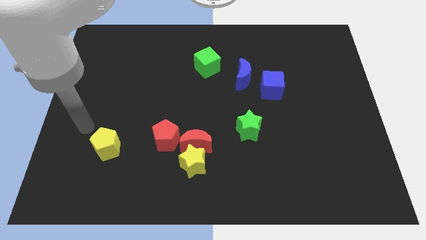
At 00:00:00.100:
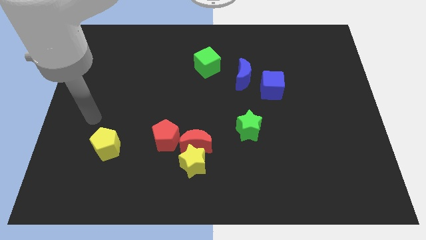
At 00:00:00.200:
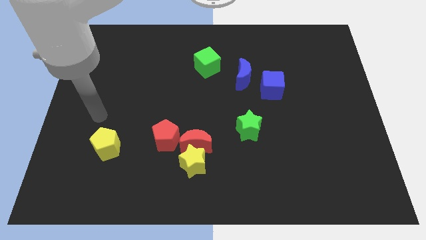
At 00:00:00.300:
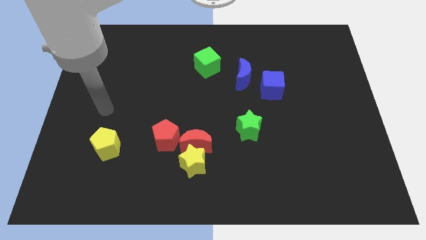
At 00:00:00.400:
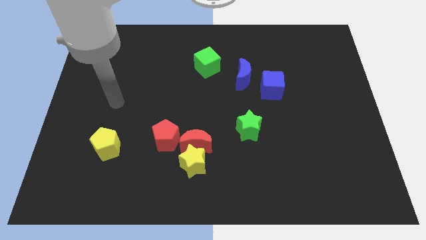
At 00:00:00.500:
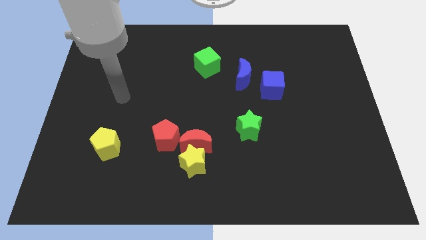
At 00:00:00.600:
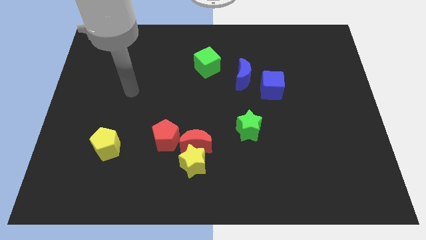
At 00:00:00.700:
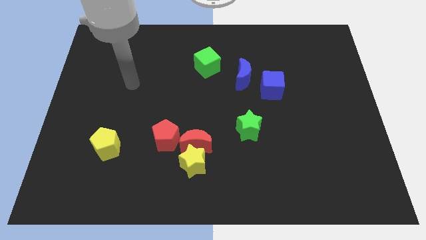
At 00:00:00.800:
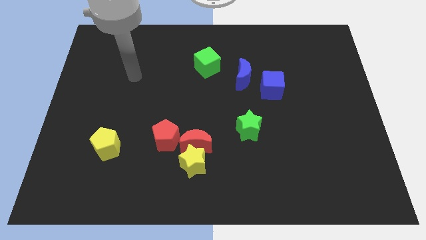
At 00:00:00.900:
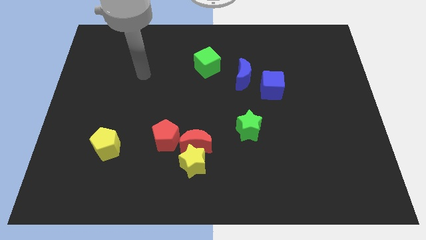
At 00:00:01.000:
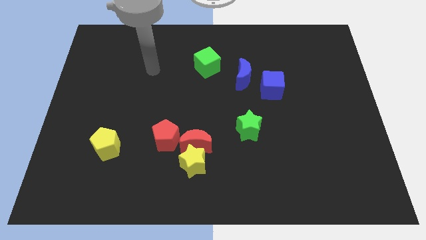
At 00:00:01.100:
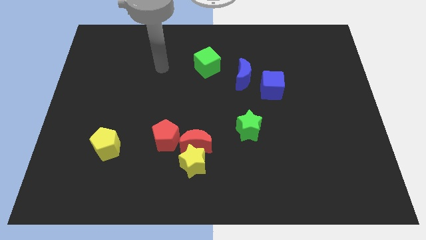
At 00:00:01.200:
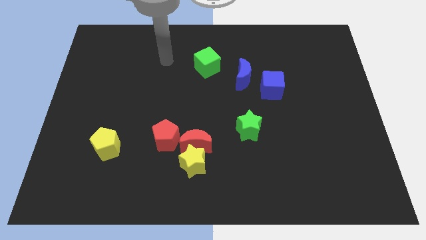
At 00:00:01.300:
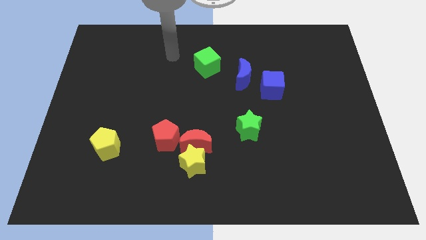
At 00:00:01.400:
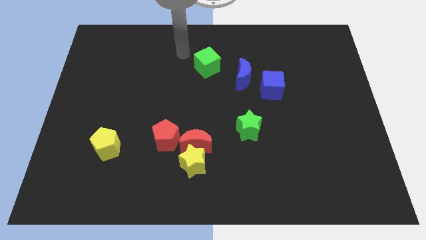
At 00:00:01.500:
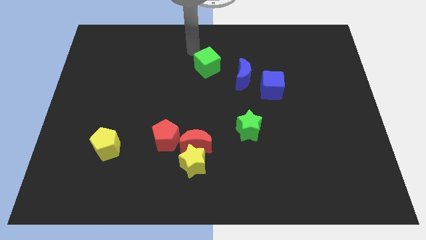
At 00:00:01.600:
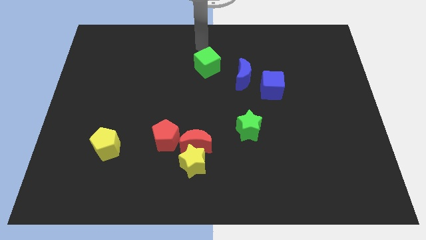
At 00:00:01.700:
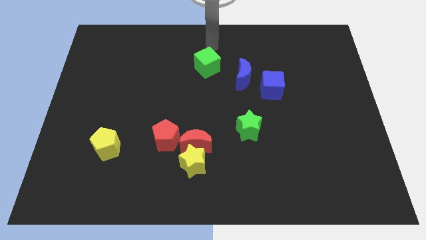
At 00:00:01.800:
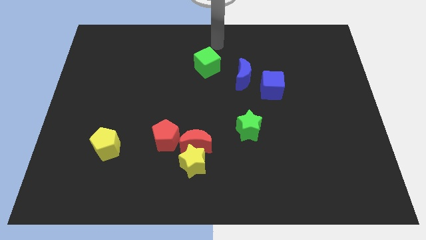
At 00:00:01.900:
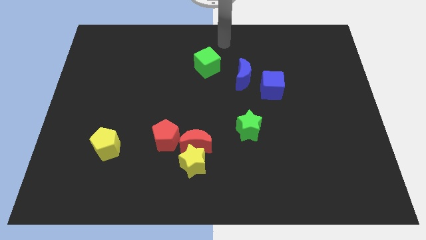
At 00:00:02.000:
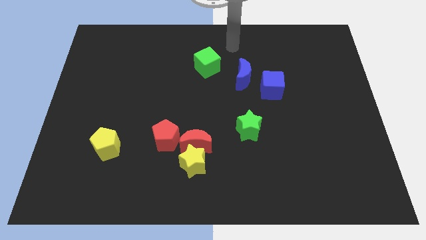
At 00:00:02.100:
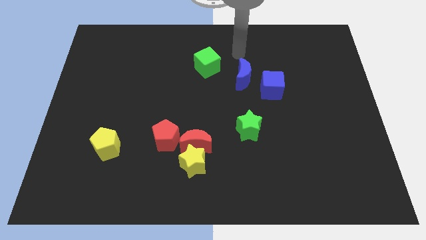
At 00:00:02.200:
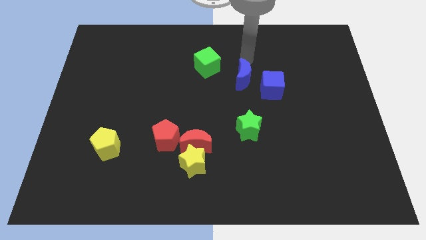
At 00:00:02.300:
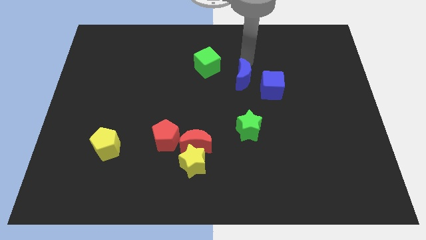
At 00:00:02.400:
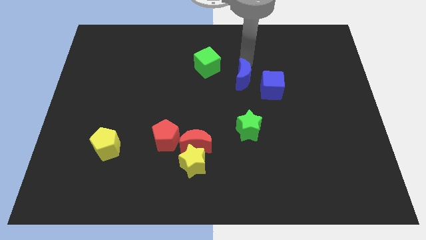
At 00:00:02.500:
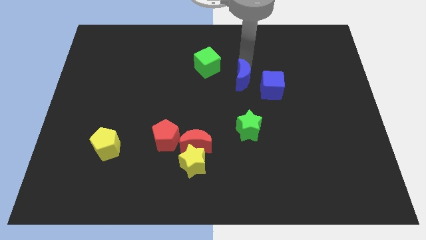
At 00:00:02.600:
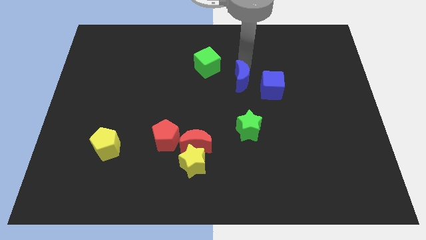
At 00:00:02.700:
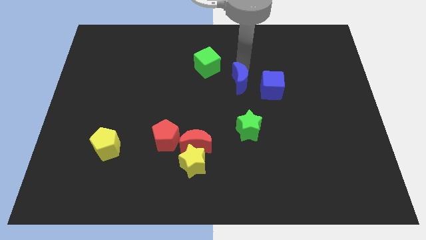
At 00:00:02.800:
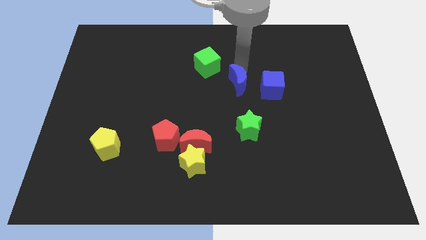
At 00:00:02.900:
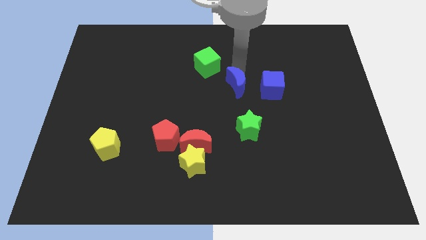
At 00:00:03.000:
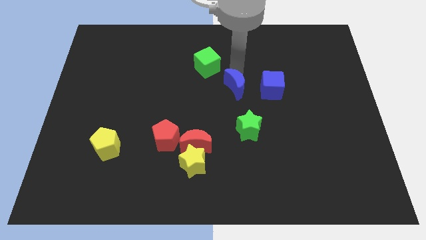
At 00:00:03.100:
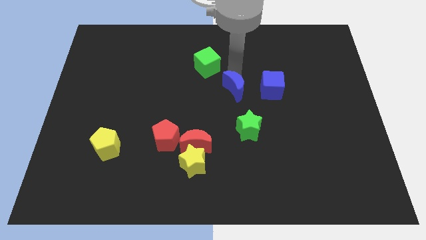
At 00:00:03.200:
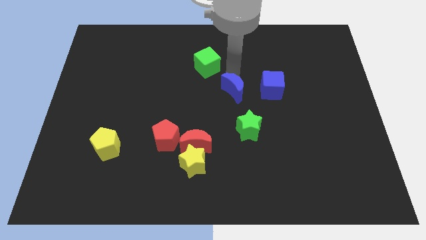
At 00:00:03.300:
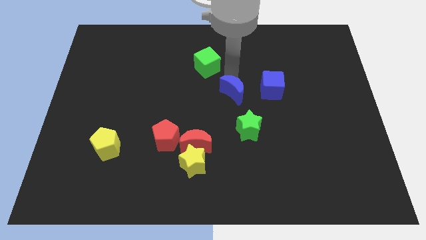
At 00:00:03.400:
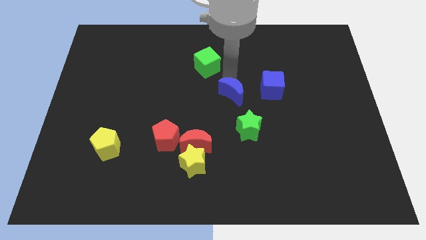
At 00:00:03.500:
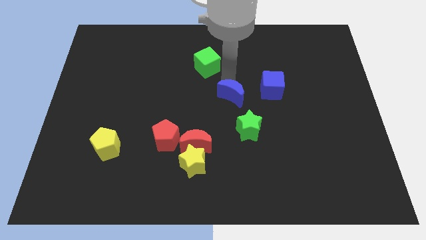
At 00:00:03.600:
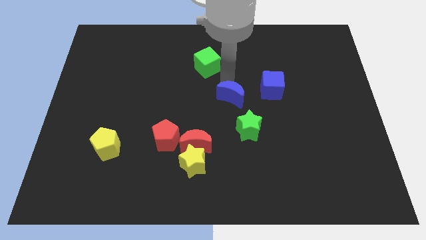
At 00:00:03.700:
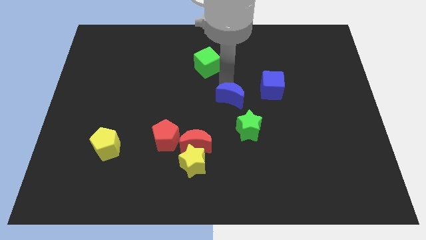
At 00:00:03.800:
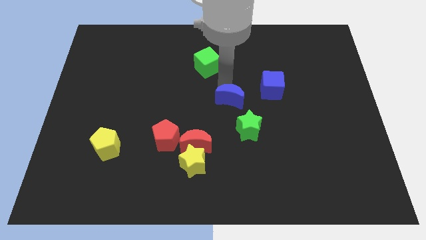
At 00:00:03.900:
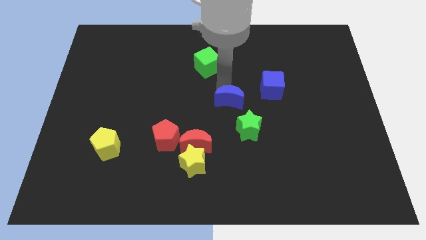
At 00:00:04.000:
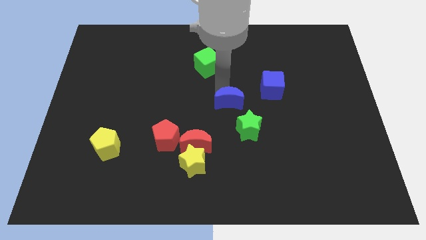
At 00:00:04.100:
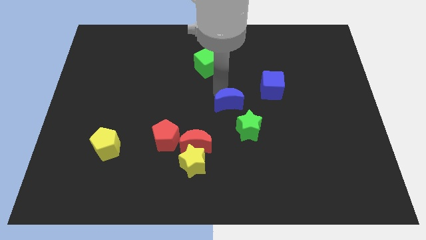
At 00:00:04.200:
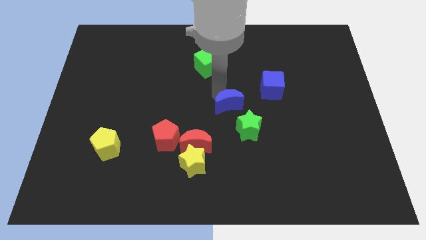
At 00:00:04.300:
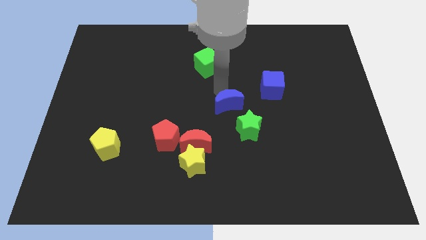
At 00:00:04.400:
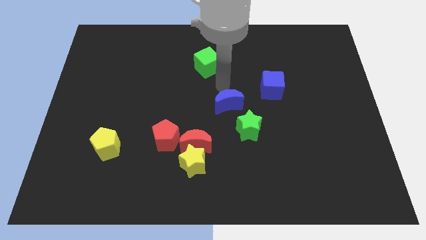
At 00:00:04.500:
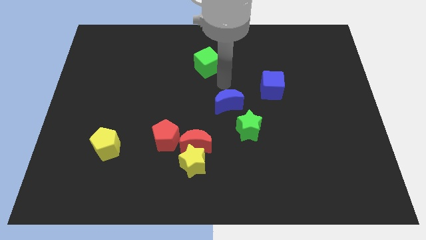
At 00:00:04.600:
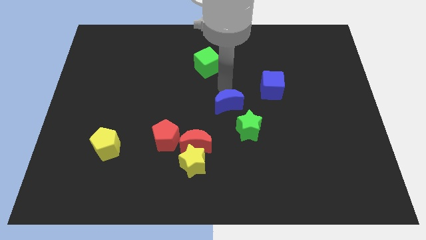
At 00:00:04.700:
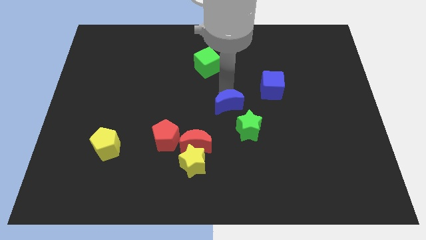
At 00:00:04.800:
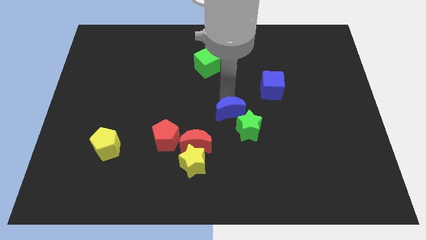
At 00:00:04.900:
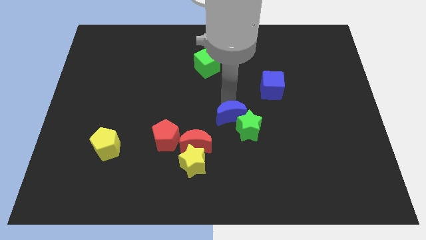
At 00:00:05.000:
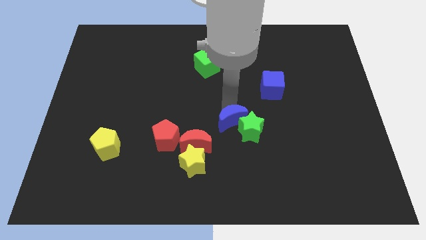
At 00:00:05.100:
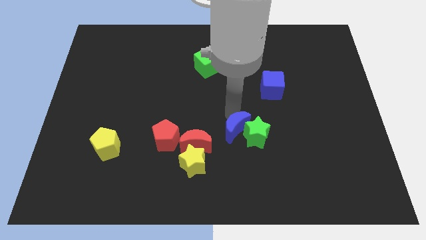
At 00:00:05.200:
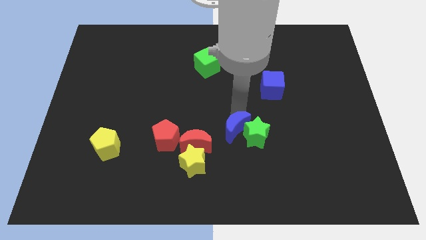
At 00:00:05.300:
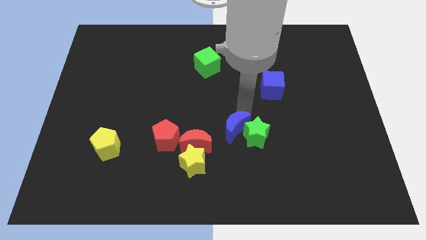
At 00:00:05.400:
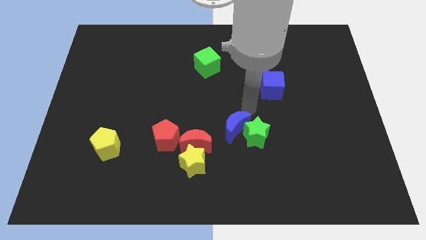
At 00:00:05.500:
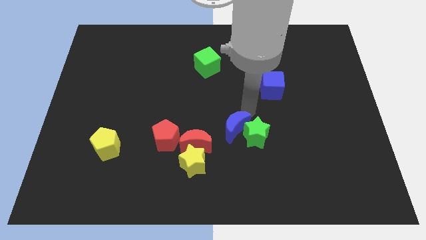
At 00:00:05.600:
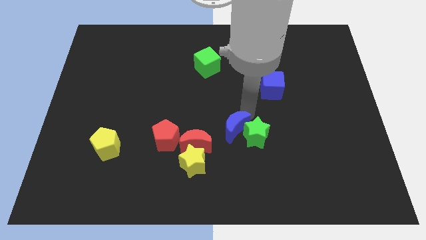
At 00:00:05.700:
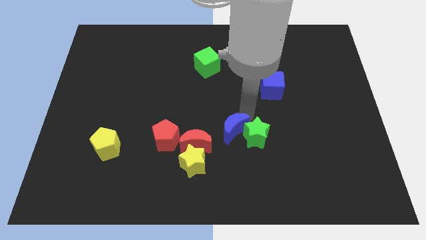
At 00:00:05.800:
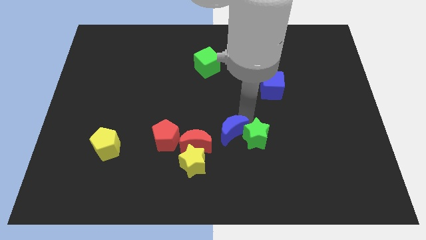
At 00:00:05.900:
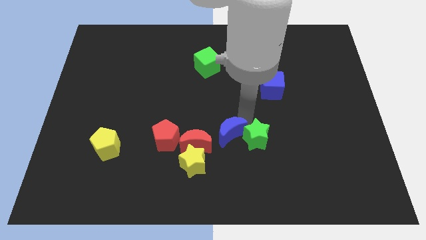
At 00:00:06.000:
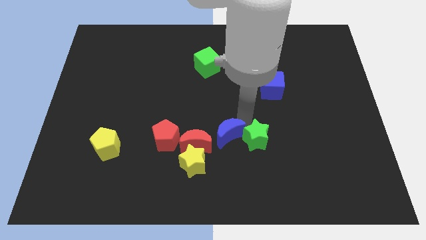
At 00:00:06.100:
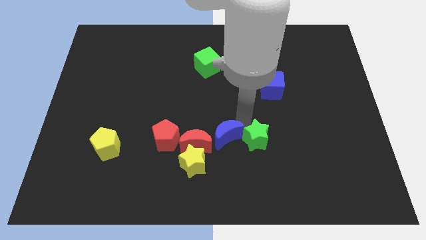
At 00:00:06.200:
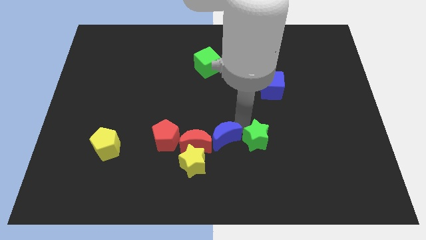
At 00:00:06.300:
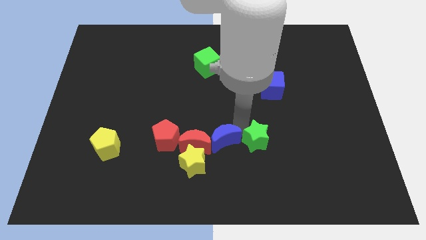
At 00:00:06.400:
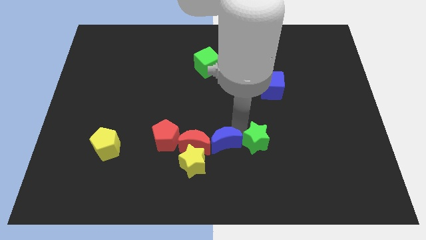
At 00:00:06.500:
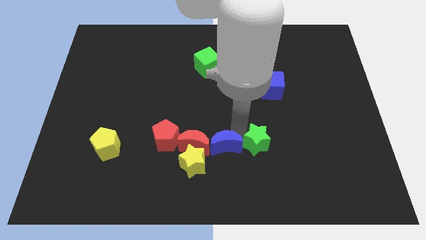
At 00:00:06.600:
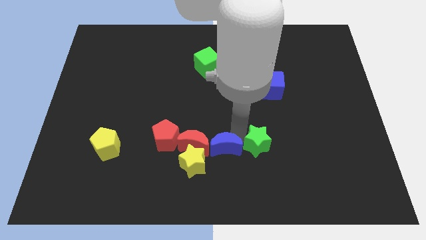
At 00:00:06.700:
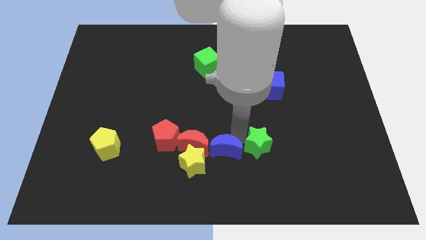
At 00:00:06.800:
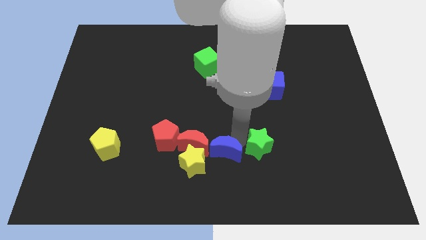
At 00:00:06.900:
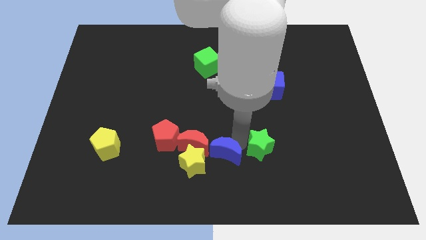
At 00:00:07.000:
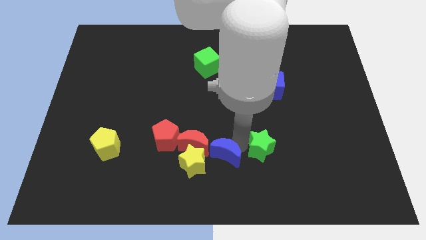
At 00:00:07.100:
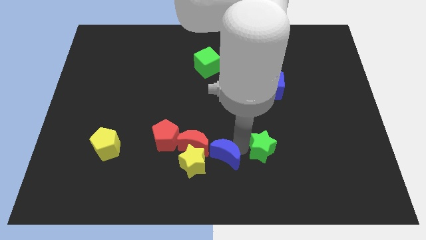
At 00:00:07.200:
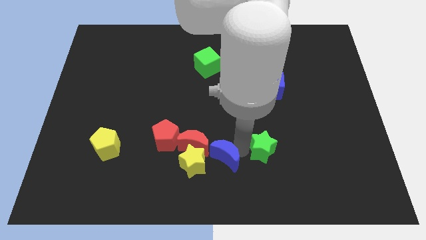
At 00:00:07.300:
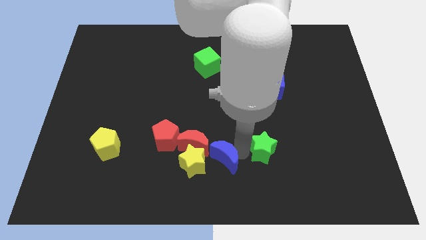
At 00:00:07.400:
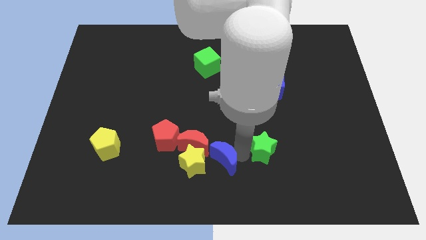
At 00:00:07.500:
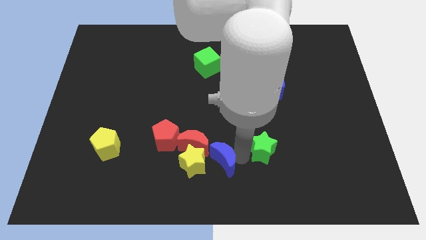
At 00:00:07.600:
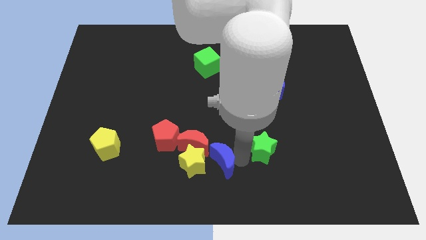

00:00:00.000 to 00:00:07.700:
slide the blue moon close to the yellow star
